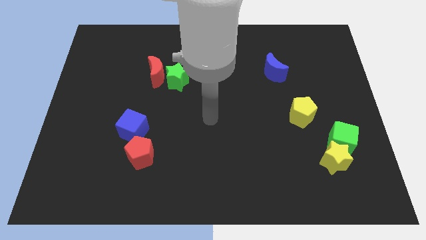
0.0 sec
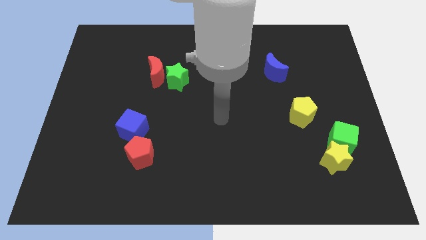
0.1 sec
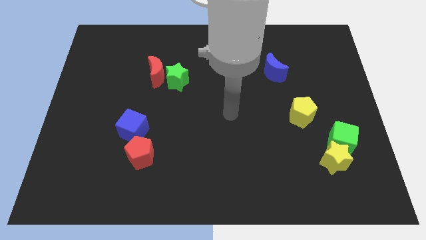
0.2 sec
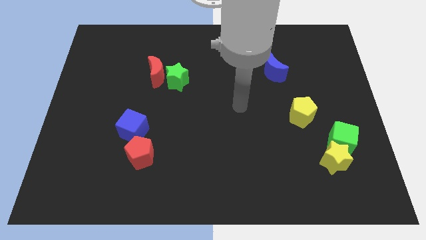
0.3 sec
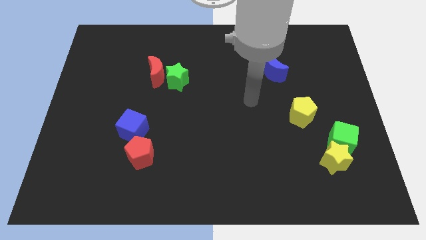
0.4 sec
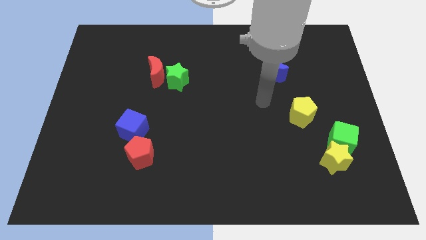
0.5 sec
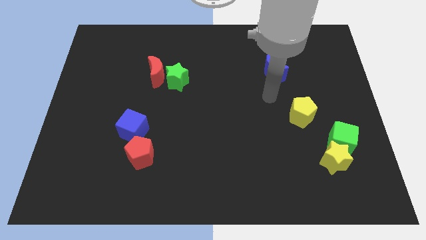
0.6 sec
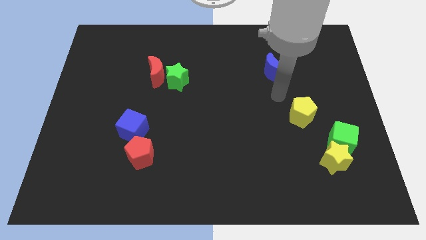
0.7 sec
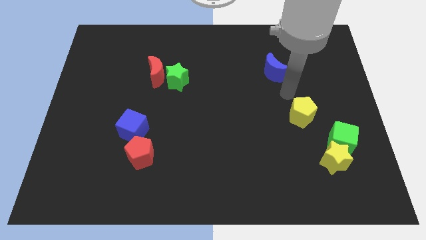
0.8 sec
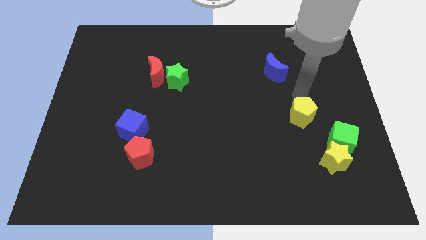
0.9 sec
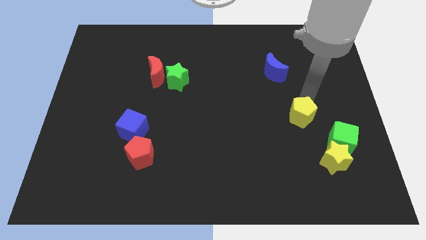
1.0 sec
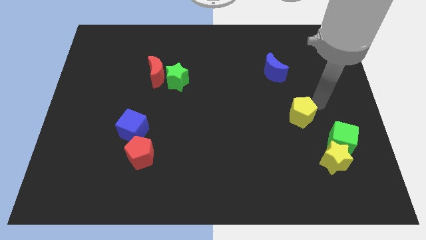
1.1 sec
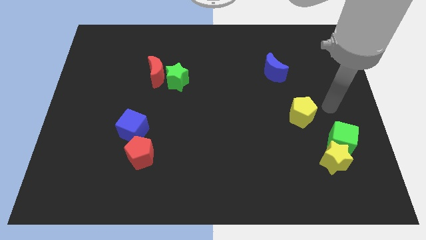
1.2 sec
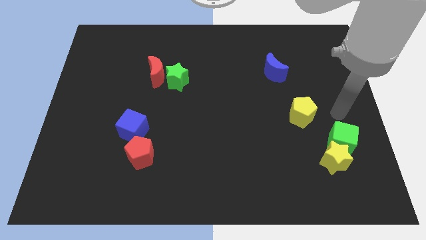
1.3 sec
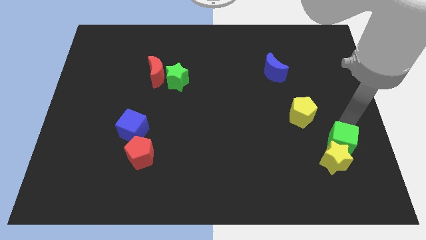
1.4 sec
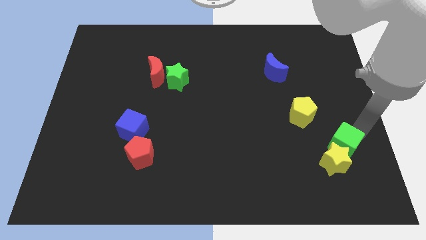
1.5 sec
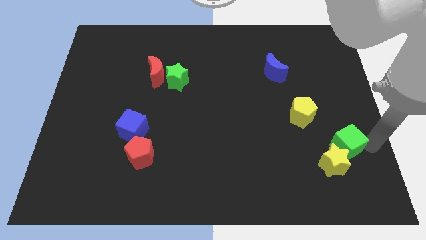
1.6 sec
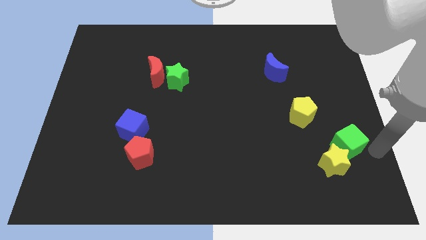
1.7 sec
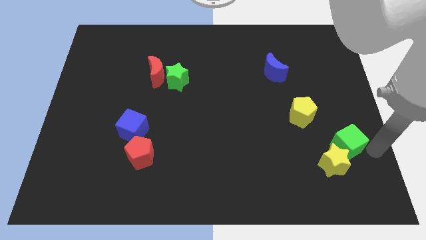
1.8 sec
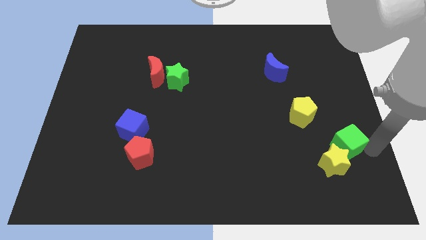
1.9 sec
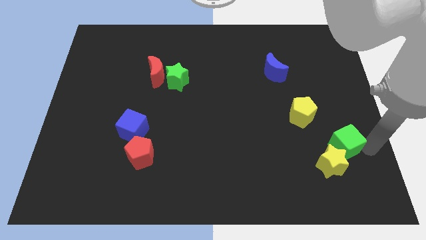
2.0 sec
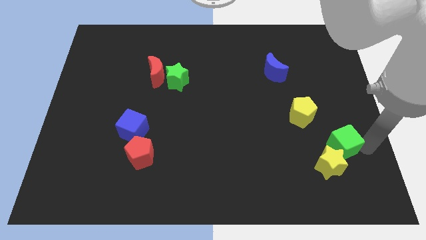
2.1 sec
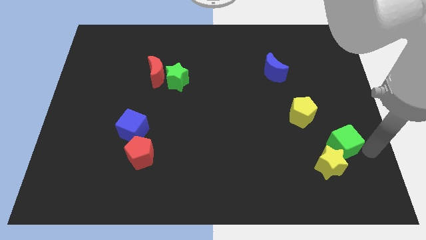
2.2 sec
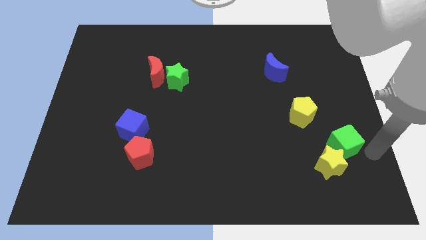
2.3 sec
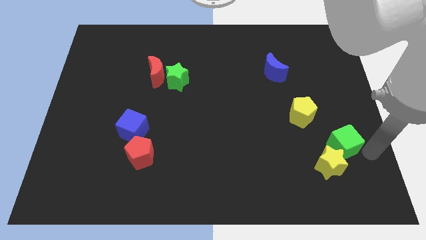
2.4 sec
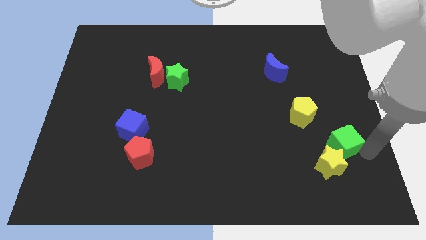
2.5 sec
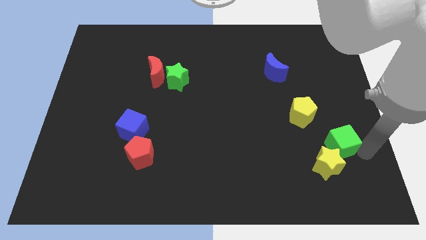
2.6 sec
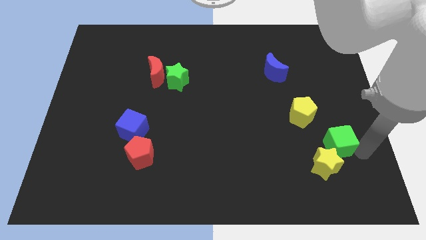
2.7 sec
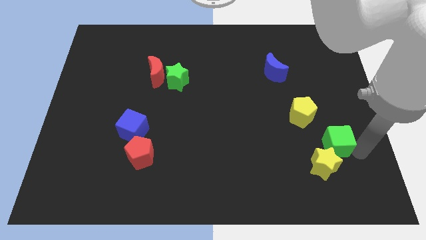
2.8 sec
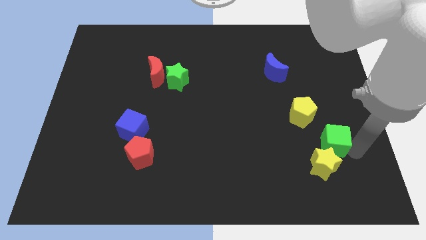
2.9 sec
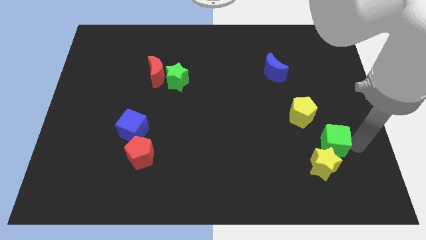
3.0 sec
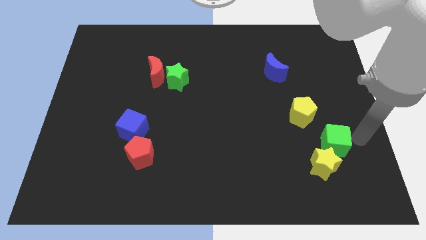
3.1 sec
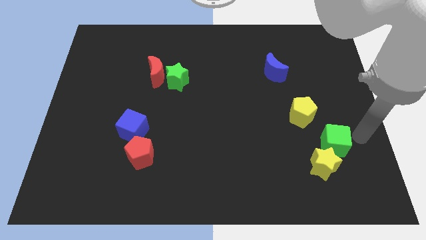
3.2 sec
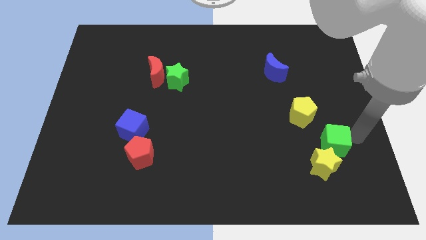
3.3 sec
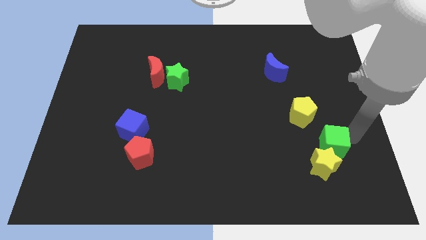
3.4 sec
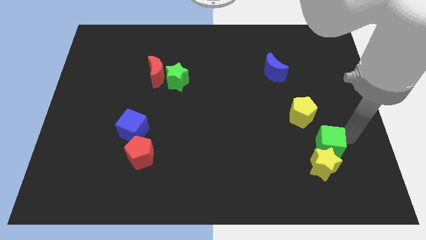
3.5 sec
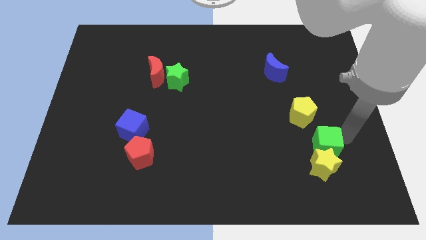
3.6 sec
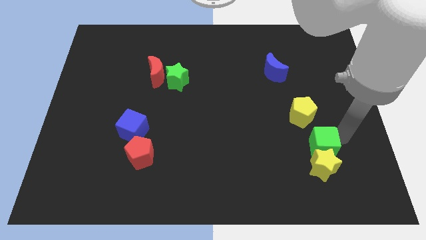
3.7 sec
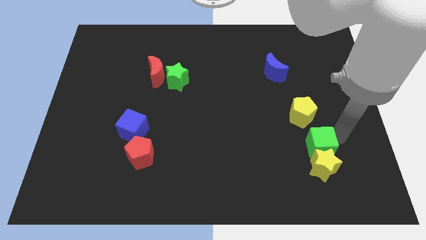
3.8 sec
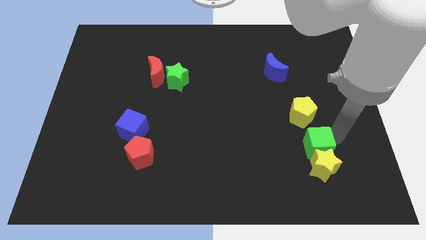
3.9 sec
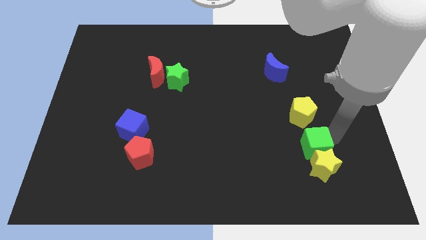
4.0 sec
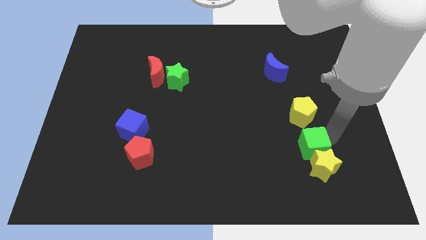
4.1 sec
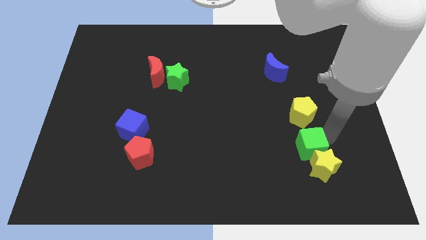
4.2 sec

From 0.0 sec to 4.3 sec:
push the green cube a little to the left

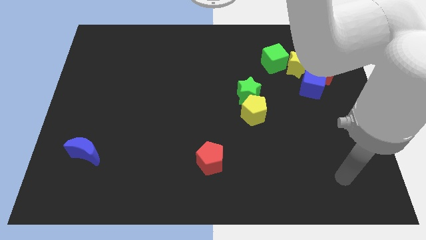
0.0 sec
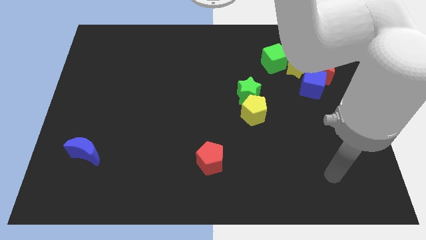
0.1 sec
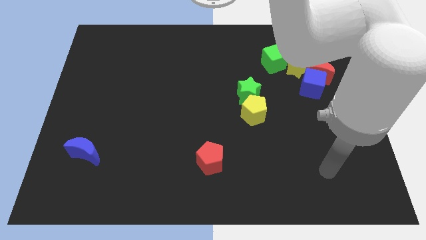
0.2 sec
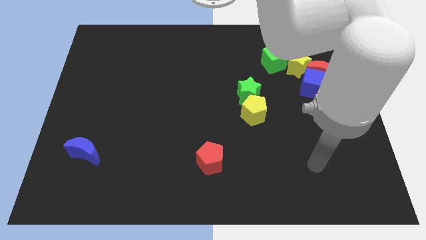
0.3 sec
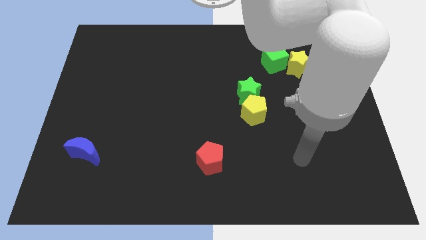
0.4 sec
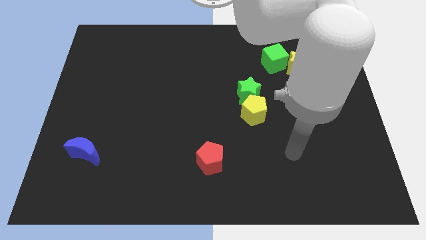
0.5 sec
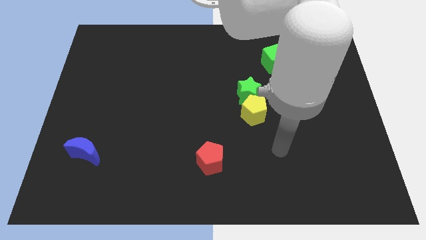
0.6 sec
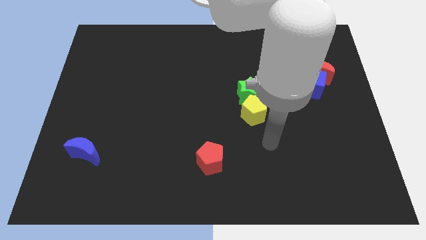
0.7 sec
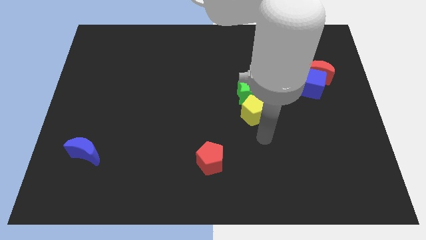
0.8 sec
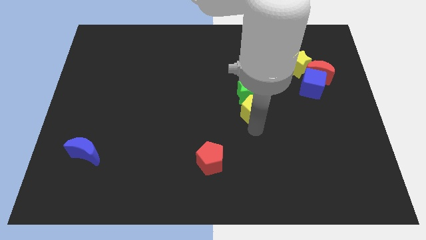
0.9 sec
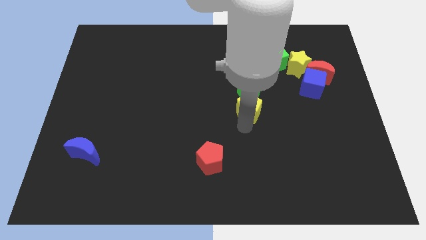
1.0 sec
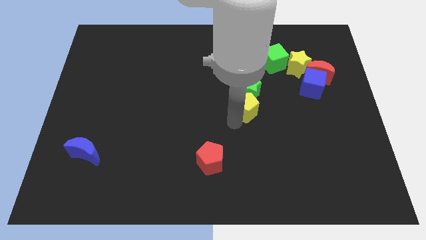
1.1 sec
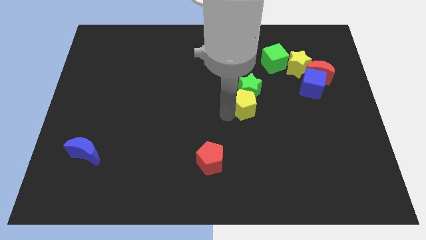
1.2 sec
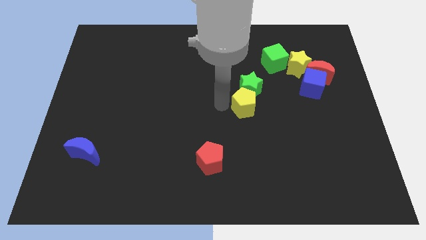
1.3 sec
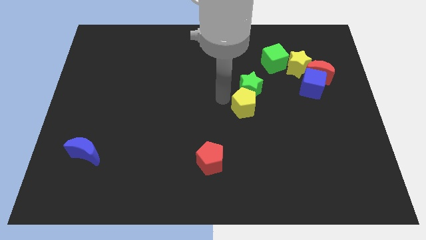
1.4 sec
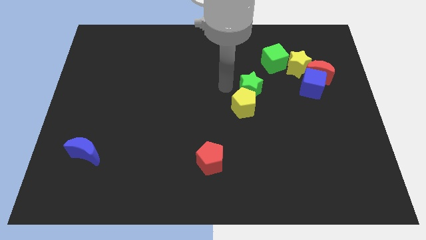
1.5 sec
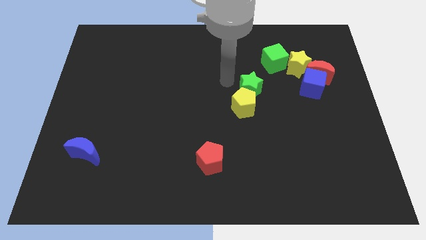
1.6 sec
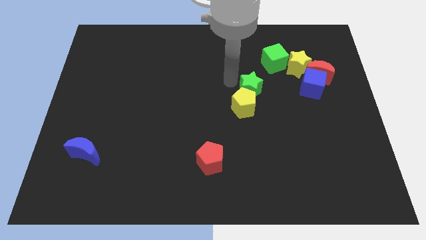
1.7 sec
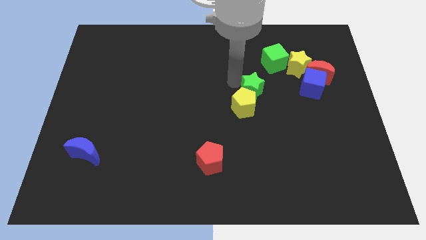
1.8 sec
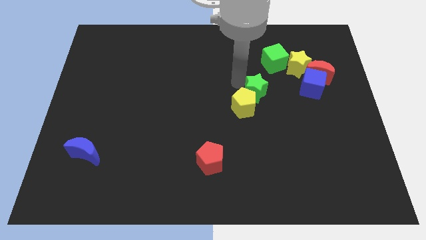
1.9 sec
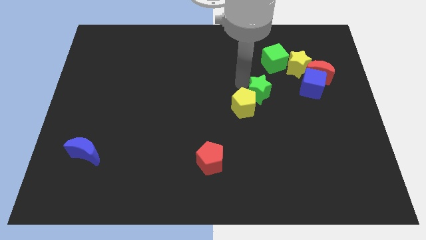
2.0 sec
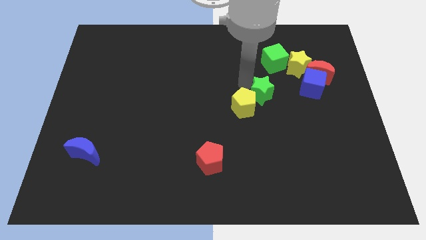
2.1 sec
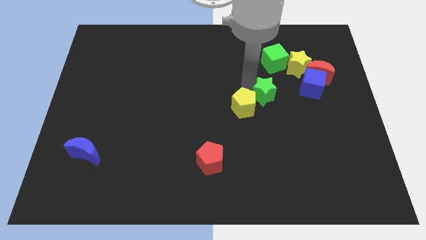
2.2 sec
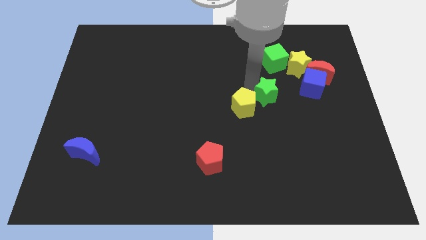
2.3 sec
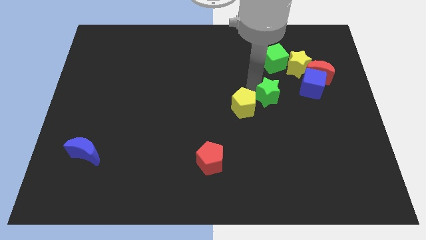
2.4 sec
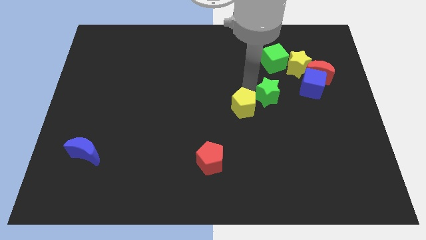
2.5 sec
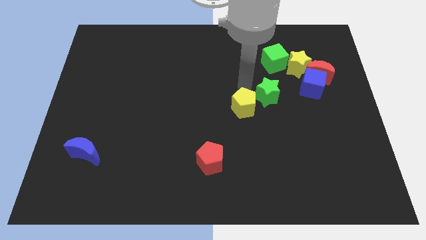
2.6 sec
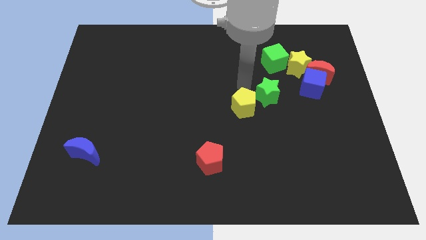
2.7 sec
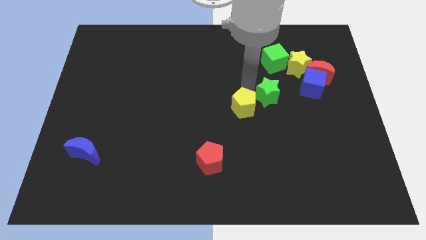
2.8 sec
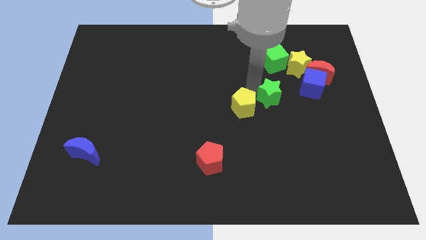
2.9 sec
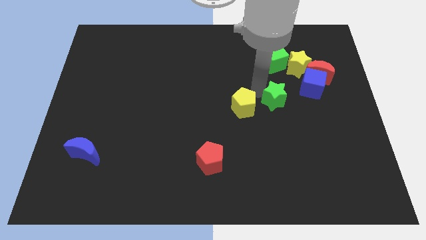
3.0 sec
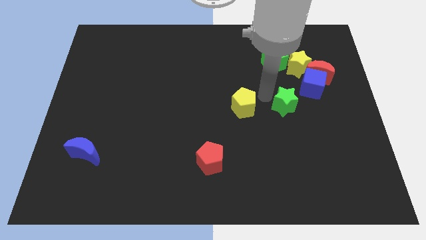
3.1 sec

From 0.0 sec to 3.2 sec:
slide the green star to the right slightly

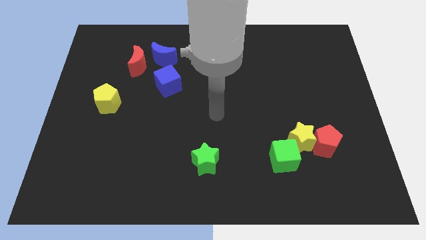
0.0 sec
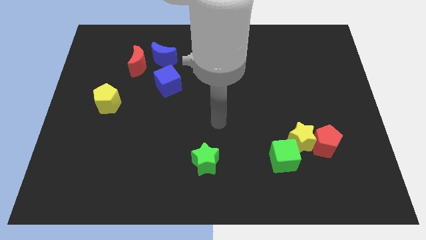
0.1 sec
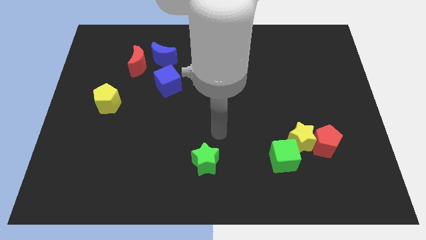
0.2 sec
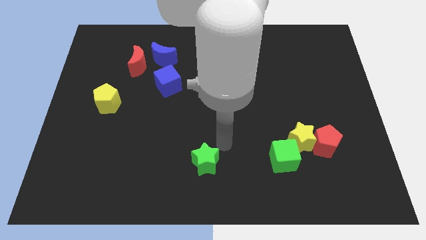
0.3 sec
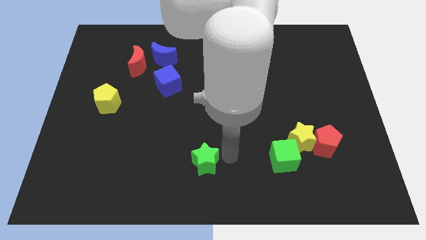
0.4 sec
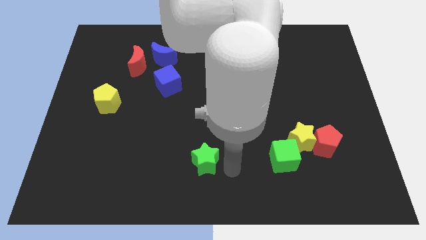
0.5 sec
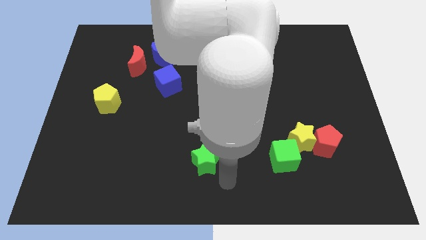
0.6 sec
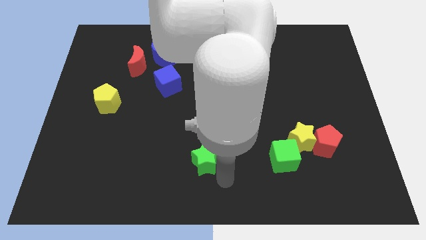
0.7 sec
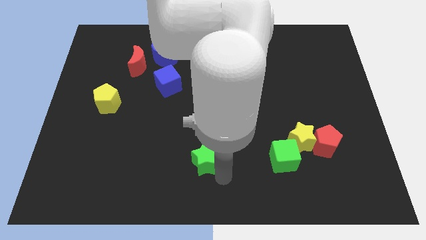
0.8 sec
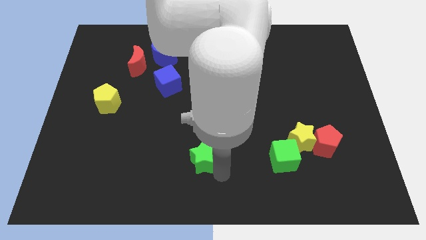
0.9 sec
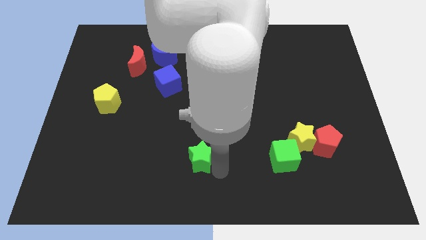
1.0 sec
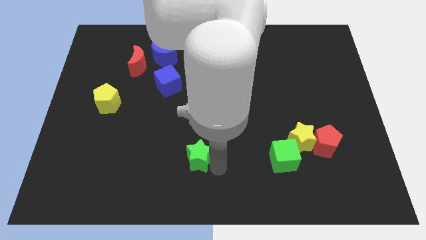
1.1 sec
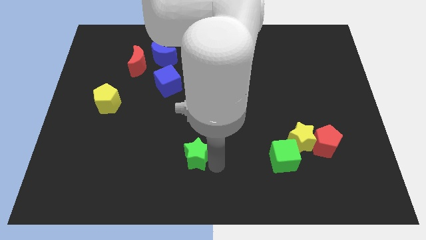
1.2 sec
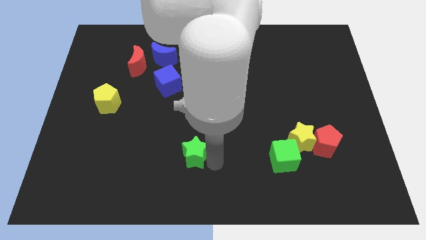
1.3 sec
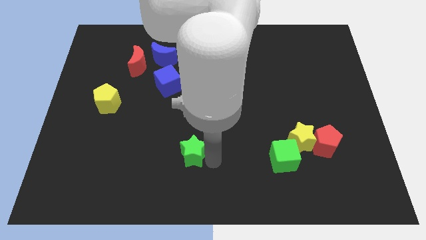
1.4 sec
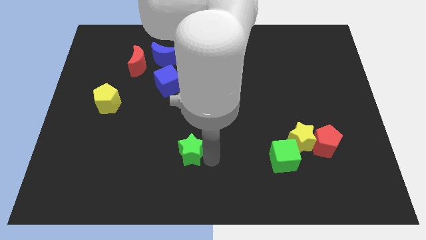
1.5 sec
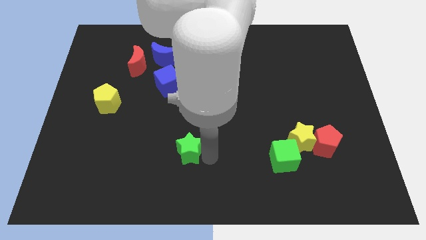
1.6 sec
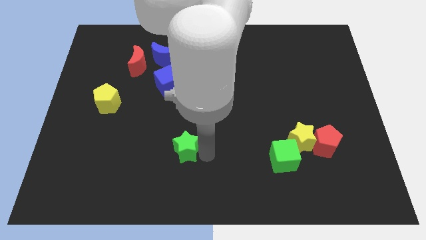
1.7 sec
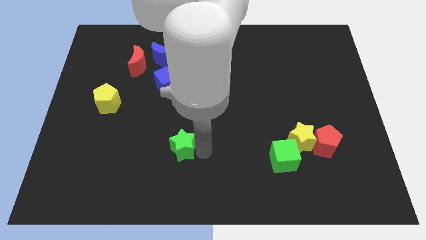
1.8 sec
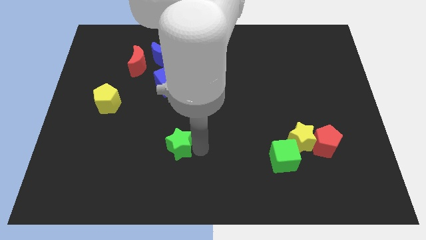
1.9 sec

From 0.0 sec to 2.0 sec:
slide the green star a bit diagonally upwards and left
